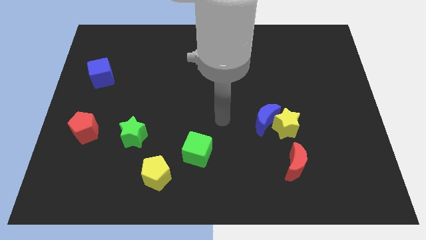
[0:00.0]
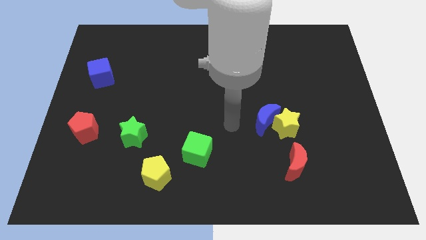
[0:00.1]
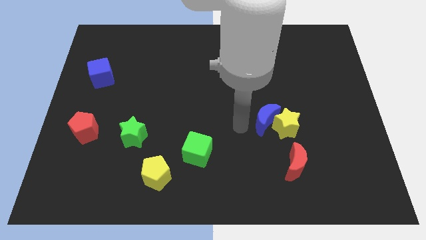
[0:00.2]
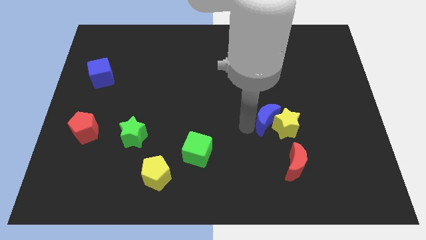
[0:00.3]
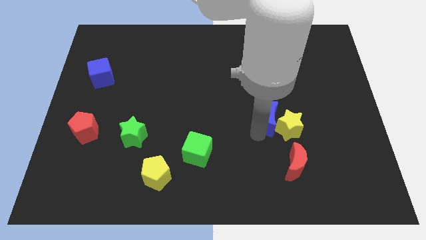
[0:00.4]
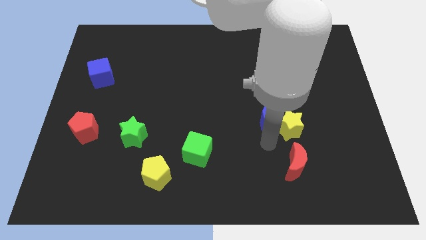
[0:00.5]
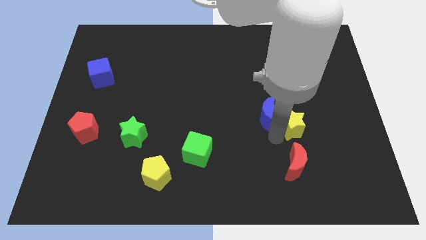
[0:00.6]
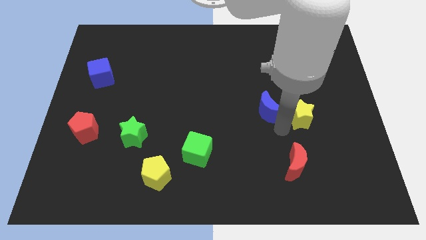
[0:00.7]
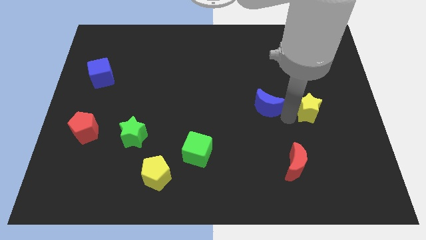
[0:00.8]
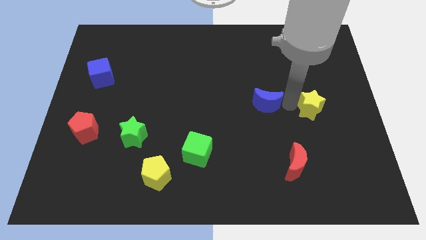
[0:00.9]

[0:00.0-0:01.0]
move the blue moon away from the yellow star

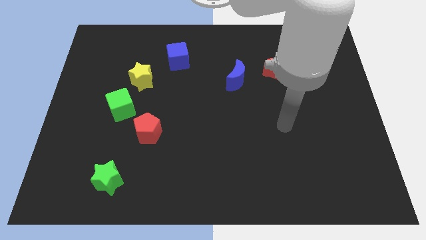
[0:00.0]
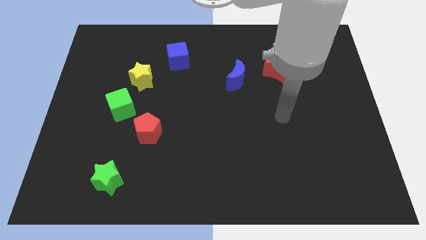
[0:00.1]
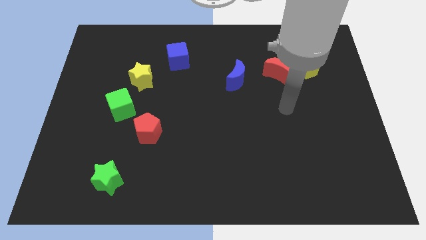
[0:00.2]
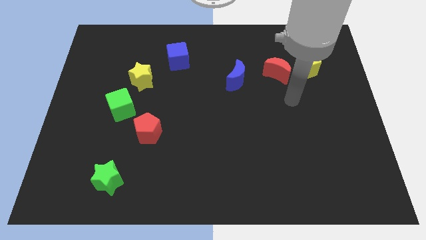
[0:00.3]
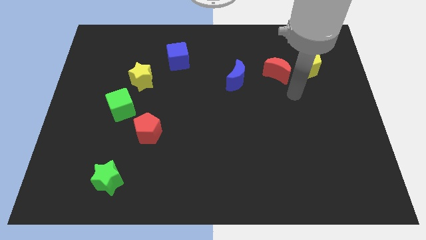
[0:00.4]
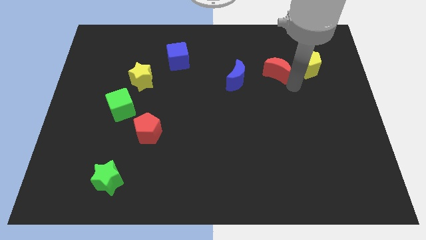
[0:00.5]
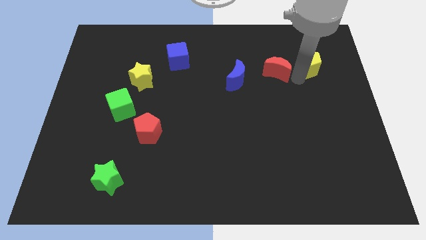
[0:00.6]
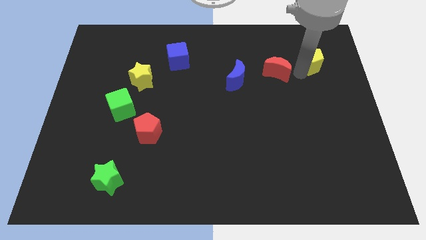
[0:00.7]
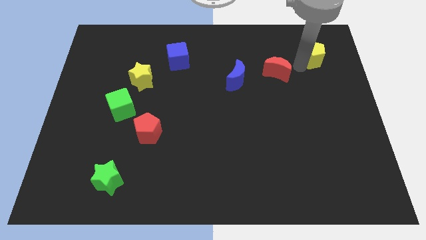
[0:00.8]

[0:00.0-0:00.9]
move the red moon away from the yellow pentagon

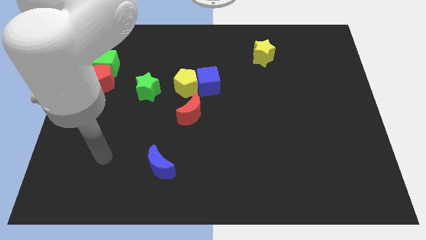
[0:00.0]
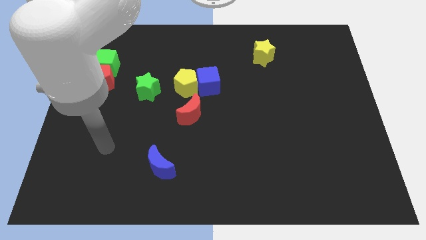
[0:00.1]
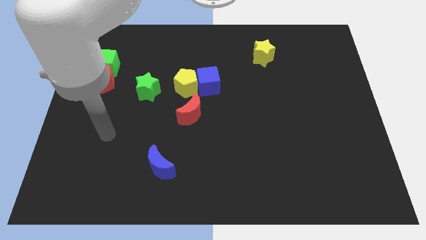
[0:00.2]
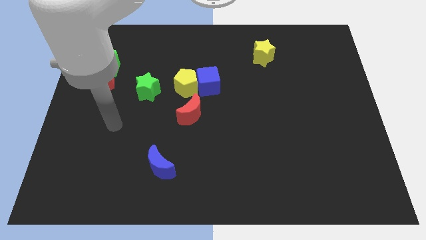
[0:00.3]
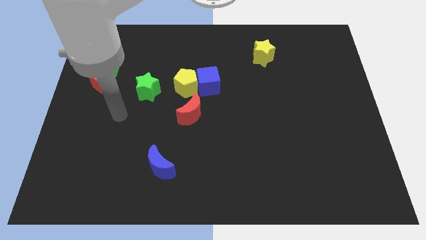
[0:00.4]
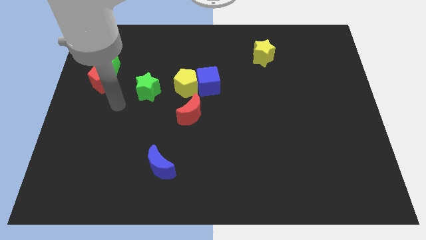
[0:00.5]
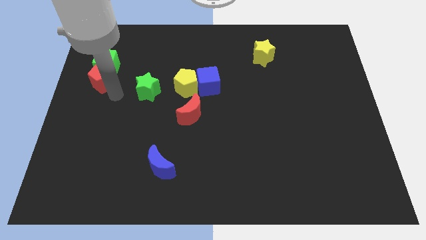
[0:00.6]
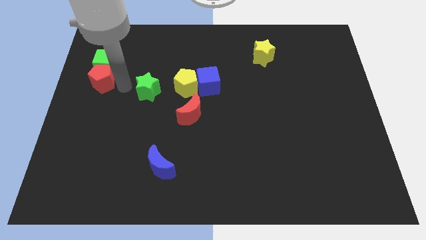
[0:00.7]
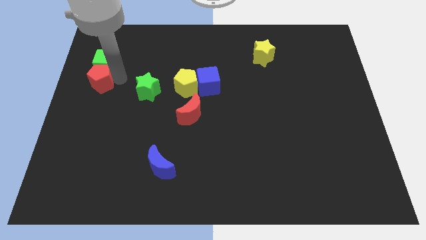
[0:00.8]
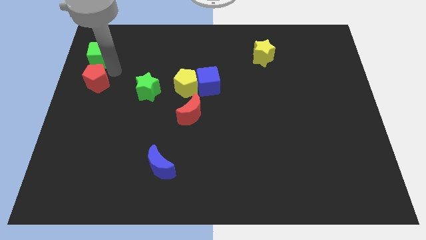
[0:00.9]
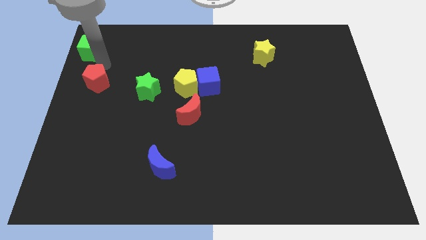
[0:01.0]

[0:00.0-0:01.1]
pull the red pentagon apart from the green cube

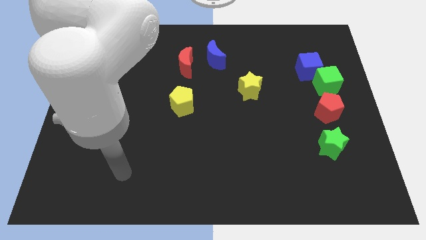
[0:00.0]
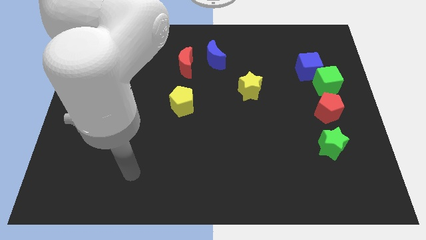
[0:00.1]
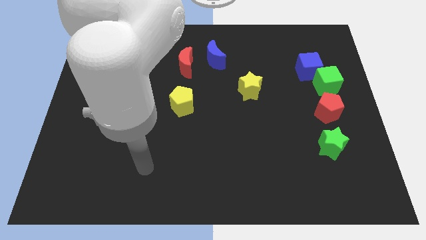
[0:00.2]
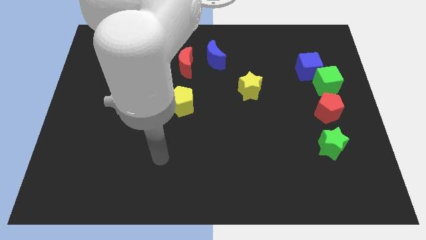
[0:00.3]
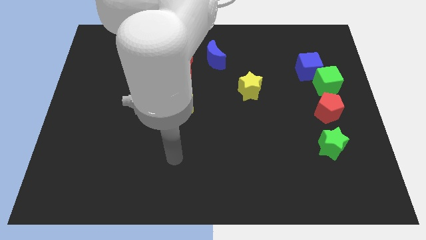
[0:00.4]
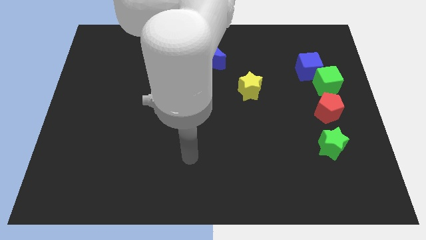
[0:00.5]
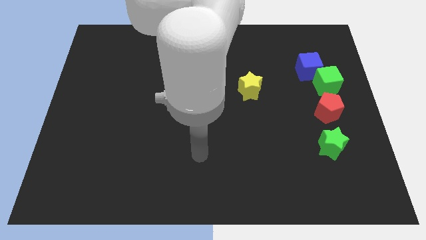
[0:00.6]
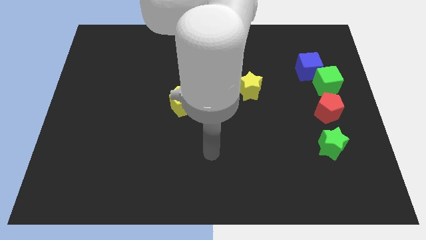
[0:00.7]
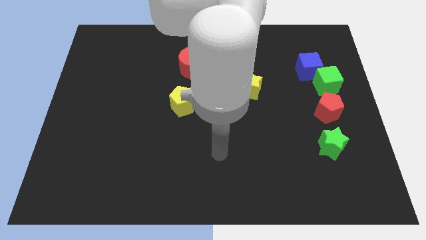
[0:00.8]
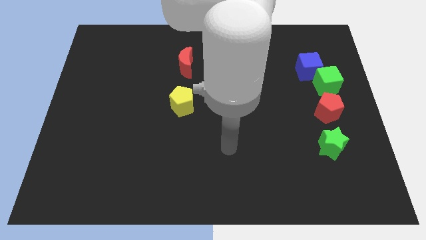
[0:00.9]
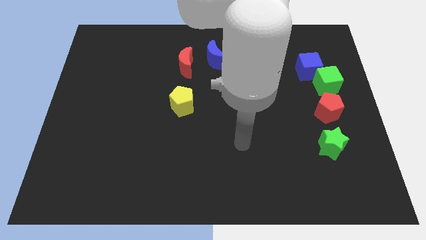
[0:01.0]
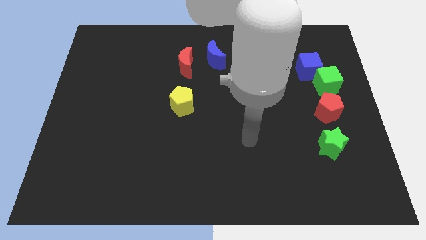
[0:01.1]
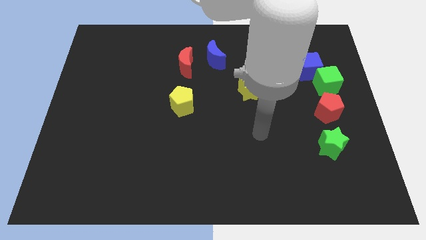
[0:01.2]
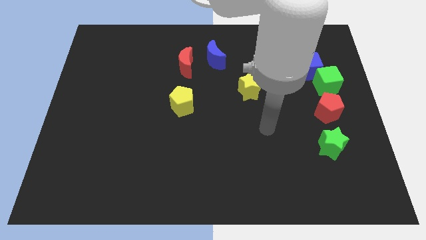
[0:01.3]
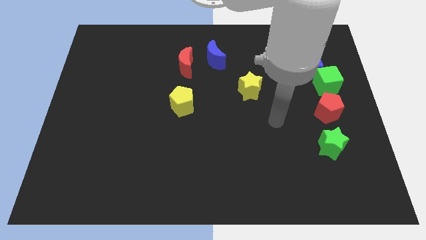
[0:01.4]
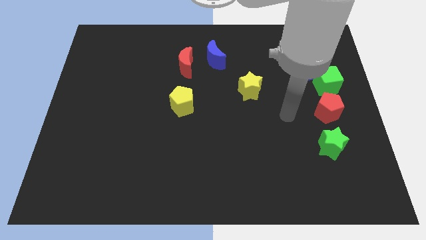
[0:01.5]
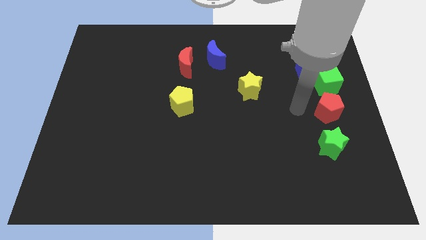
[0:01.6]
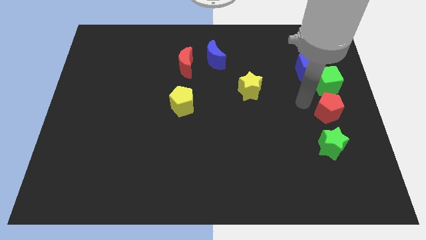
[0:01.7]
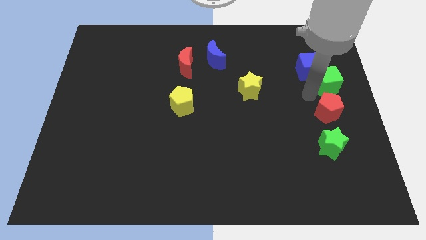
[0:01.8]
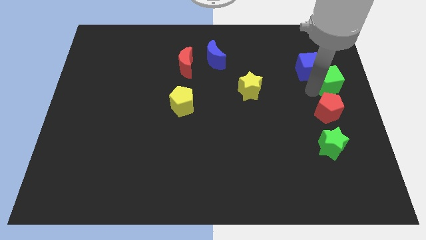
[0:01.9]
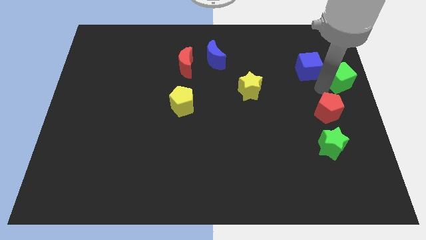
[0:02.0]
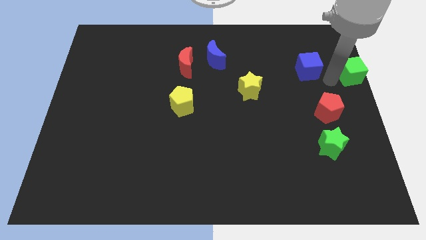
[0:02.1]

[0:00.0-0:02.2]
move the blue cube away from the green cube

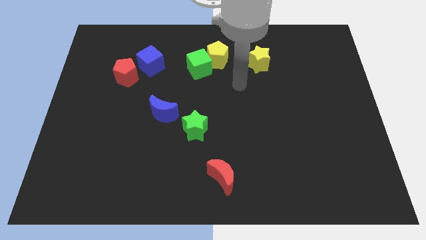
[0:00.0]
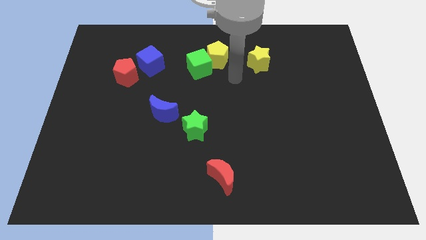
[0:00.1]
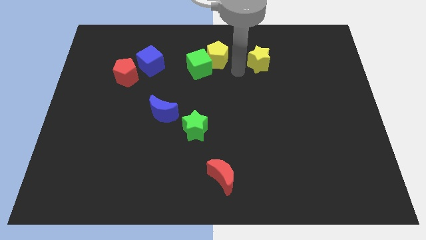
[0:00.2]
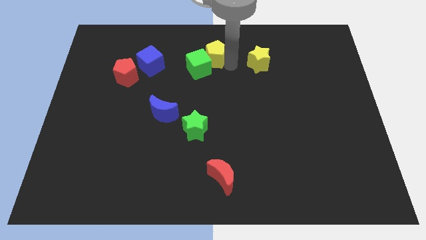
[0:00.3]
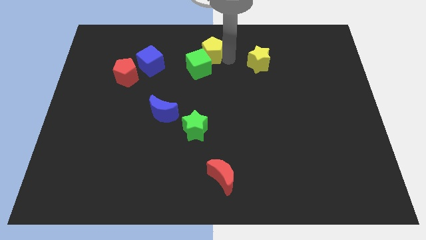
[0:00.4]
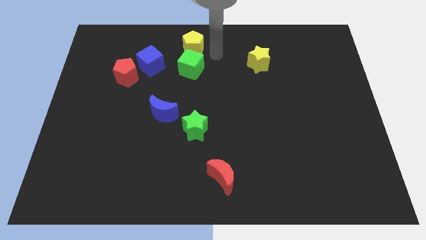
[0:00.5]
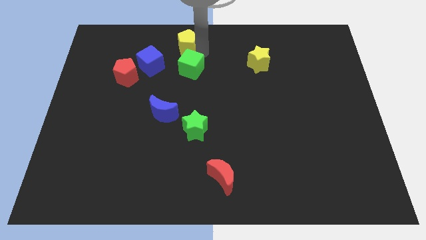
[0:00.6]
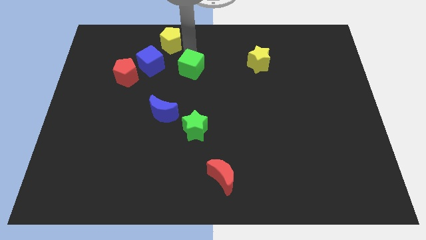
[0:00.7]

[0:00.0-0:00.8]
pull the green cube apart from the yellow pentagon

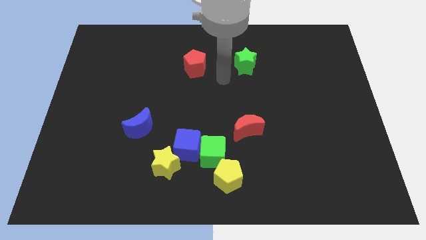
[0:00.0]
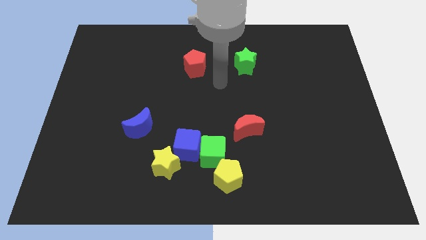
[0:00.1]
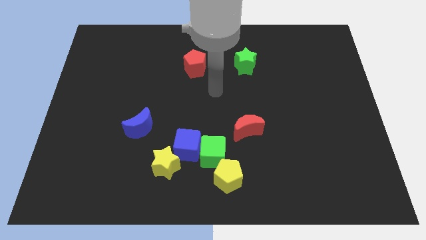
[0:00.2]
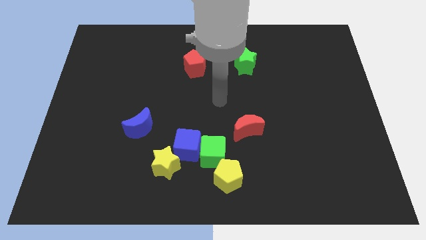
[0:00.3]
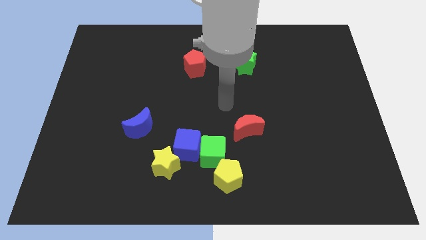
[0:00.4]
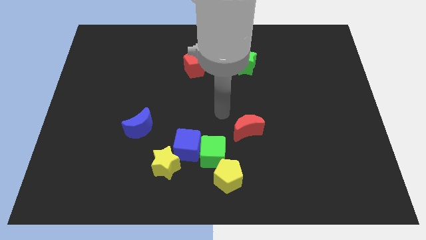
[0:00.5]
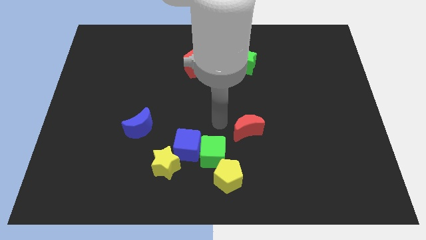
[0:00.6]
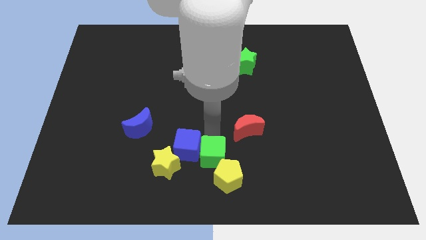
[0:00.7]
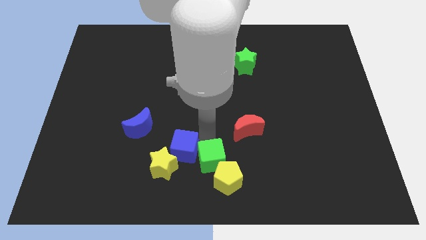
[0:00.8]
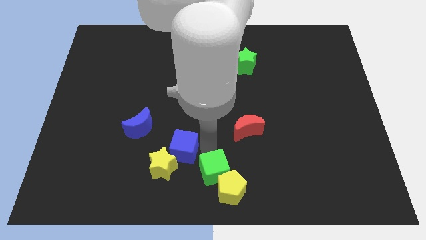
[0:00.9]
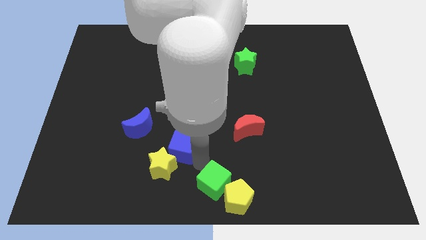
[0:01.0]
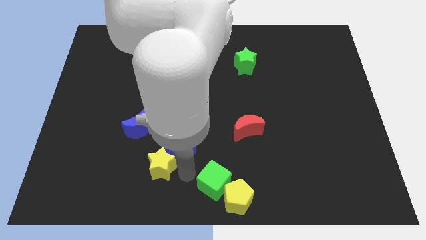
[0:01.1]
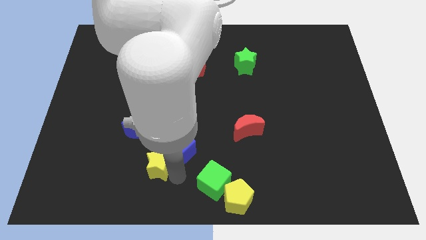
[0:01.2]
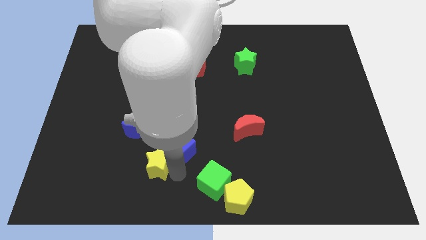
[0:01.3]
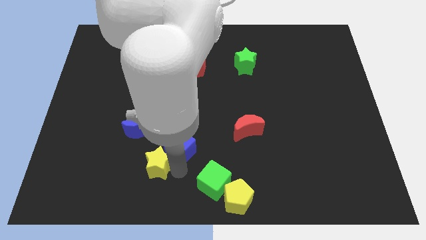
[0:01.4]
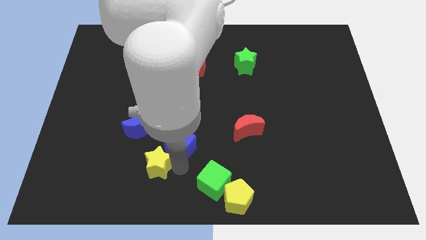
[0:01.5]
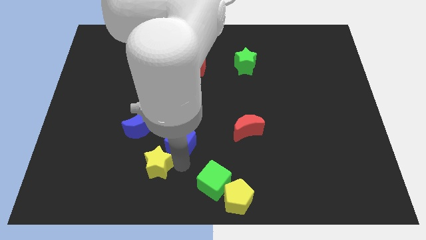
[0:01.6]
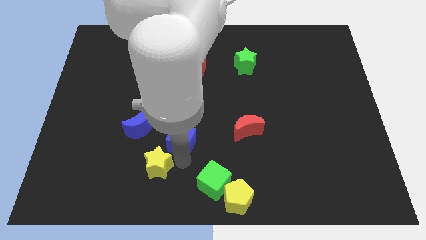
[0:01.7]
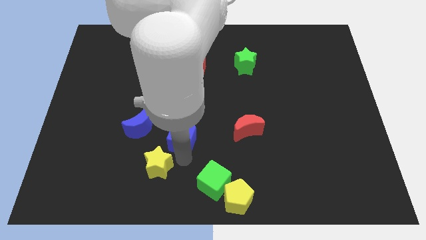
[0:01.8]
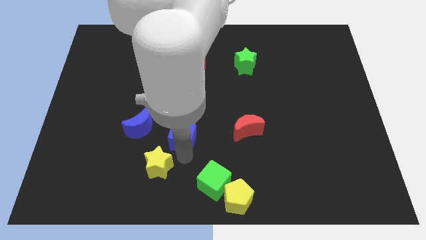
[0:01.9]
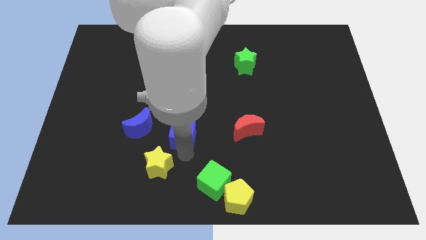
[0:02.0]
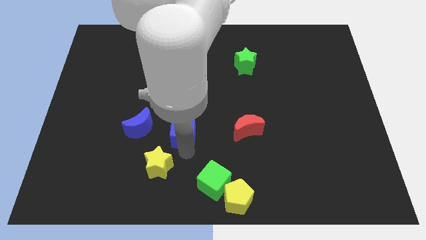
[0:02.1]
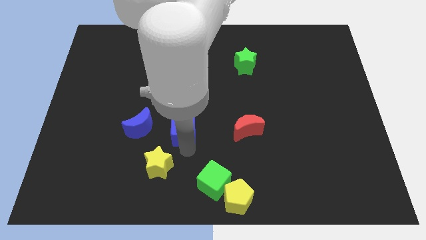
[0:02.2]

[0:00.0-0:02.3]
move the blue cube away from the green cube and yellow star

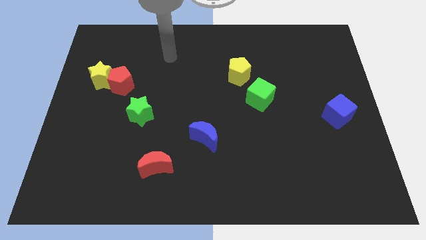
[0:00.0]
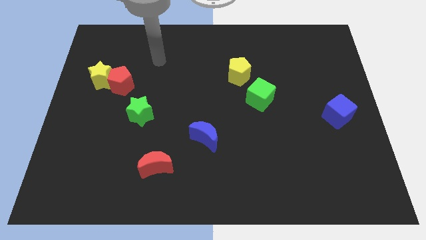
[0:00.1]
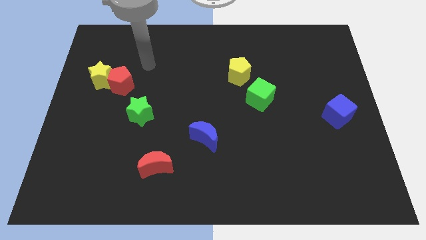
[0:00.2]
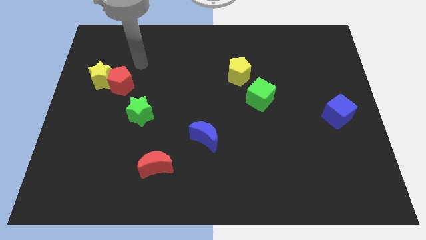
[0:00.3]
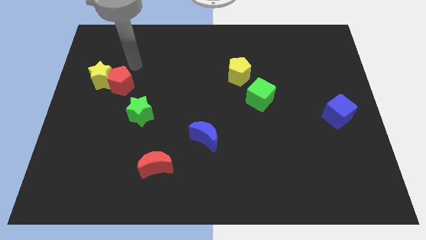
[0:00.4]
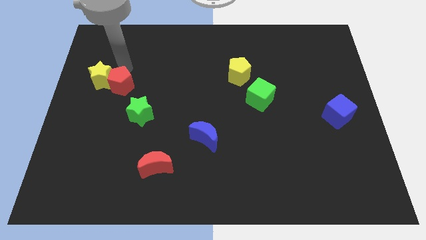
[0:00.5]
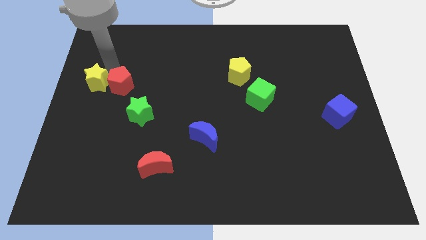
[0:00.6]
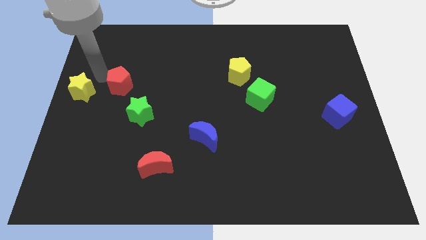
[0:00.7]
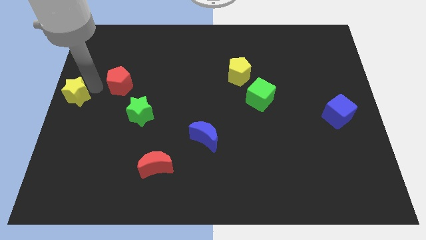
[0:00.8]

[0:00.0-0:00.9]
pull the red pentagon apart from the yellow star

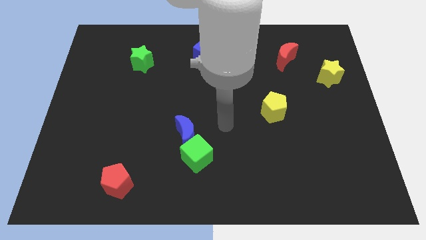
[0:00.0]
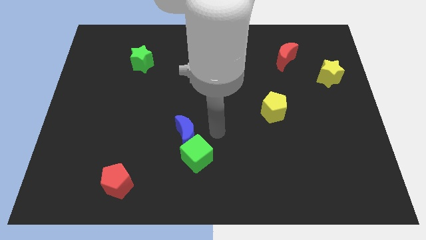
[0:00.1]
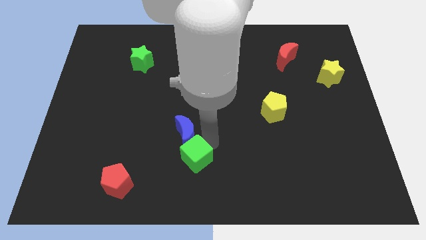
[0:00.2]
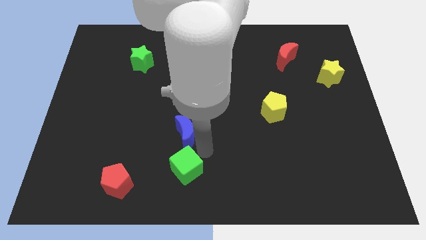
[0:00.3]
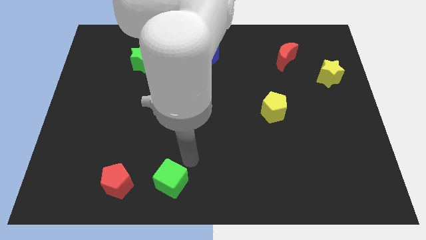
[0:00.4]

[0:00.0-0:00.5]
pull the blue moon apart from the green cube
